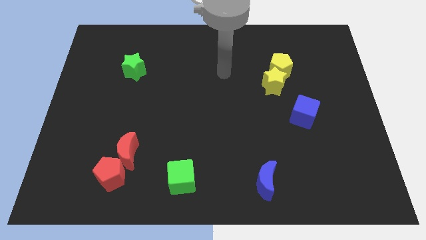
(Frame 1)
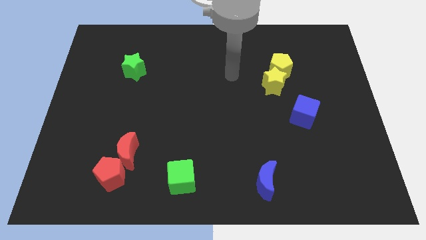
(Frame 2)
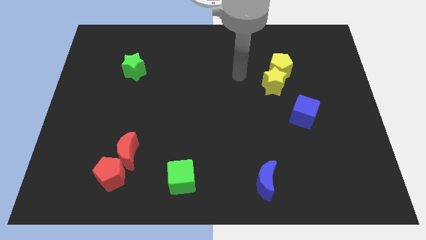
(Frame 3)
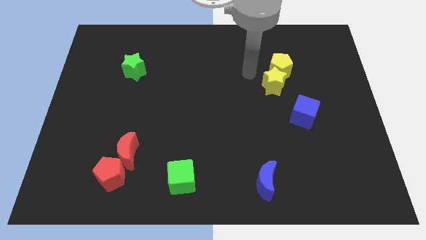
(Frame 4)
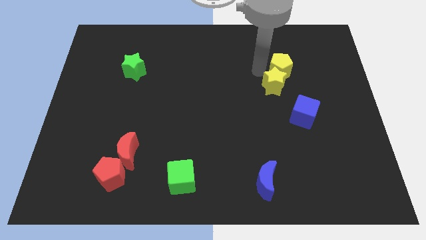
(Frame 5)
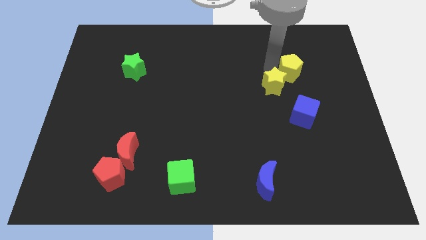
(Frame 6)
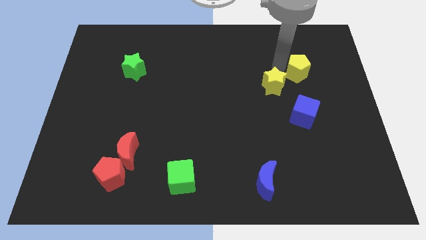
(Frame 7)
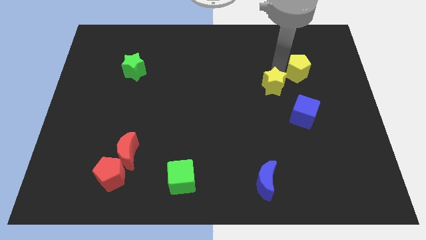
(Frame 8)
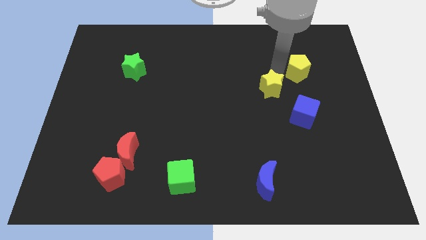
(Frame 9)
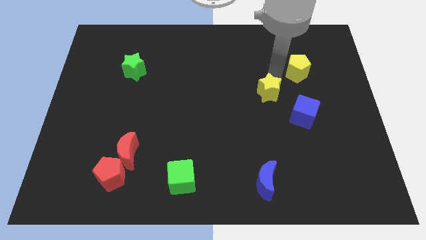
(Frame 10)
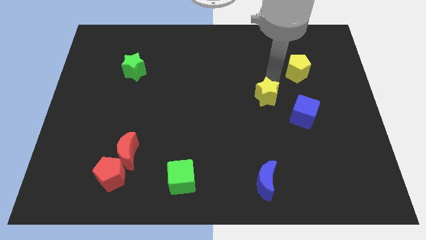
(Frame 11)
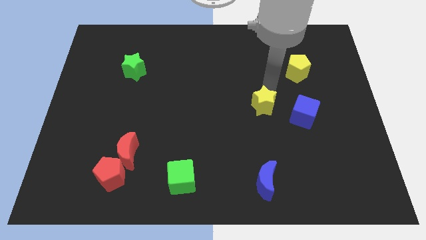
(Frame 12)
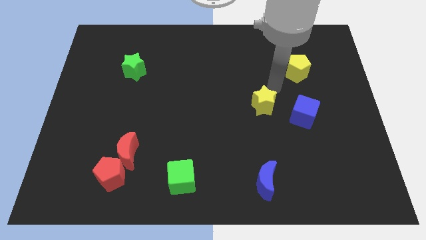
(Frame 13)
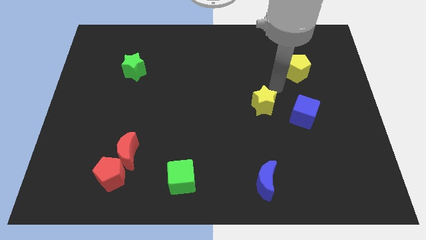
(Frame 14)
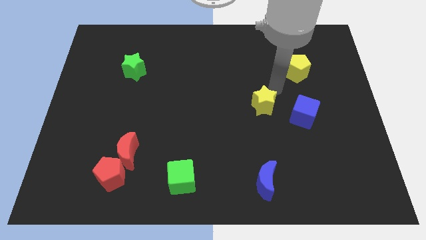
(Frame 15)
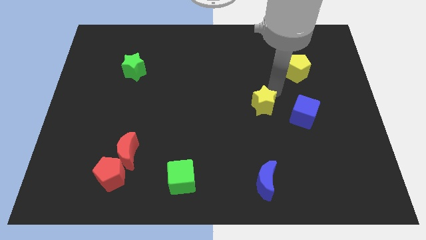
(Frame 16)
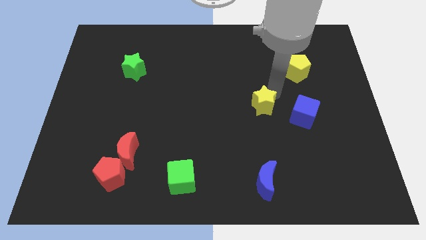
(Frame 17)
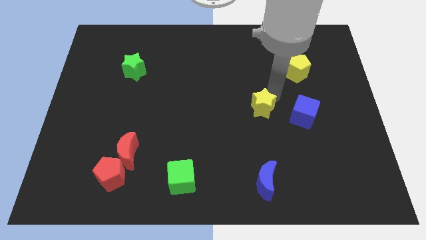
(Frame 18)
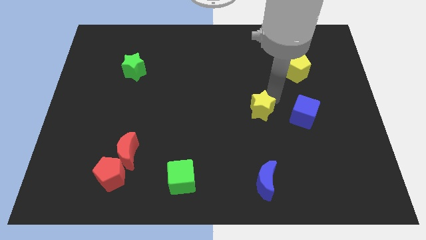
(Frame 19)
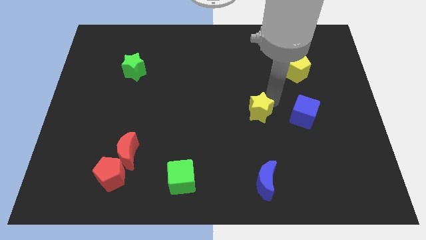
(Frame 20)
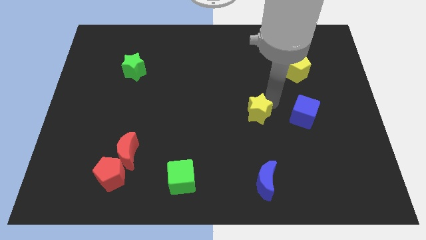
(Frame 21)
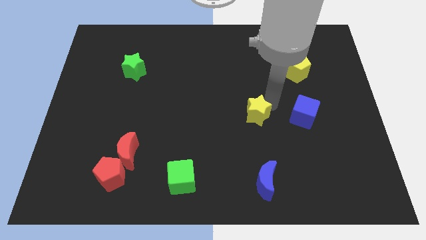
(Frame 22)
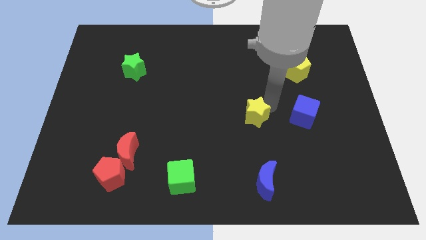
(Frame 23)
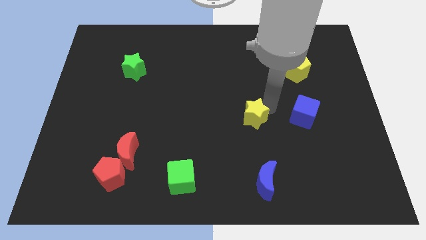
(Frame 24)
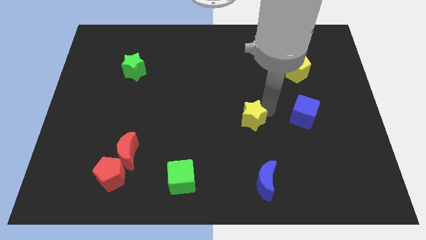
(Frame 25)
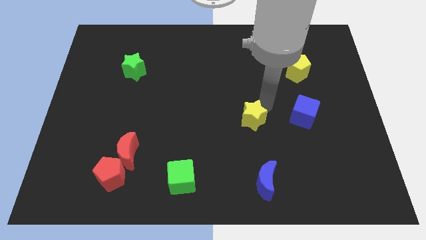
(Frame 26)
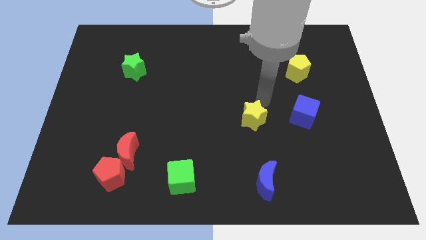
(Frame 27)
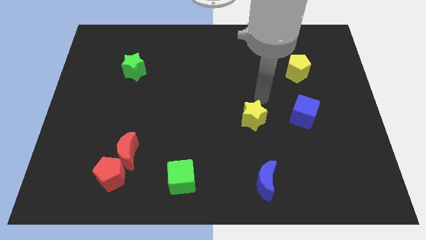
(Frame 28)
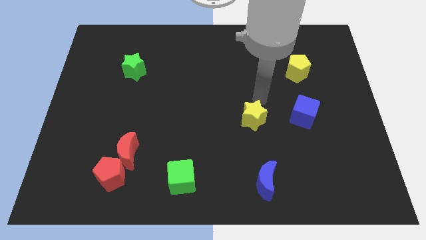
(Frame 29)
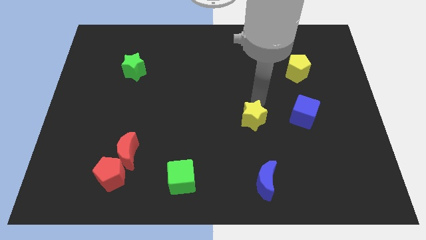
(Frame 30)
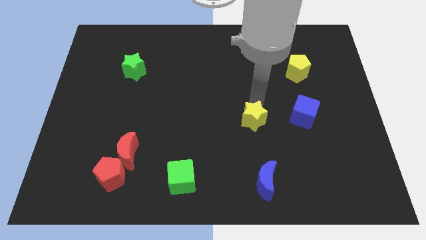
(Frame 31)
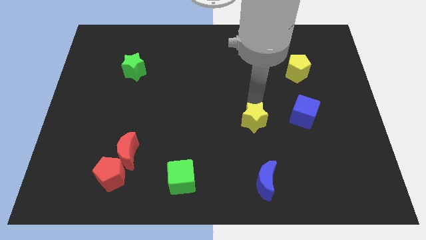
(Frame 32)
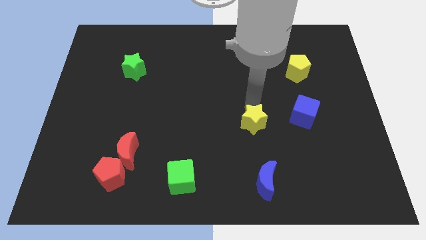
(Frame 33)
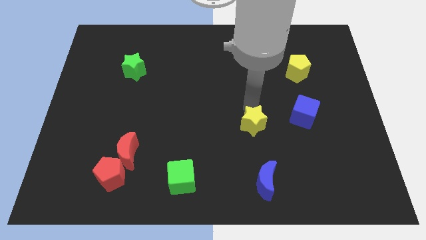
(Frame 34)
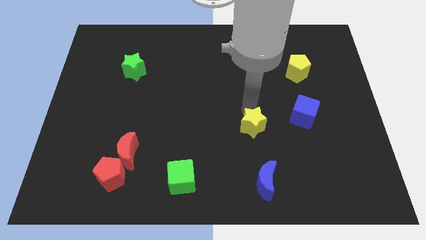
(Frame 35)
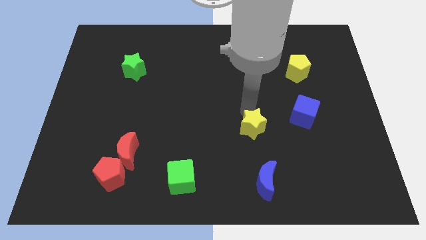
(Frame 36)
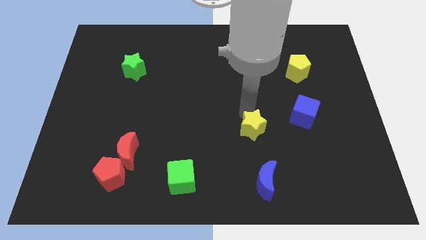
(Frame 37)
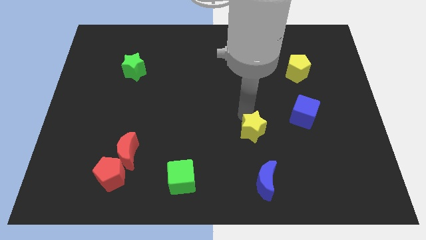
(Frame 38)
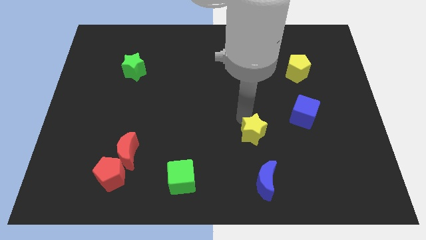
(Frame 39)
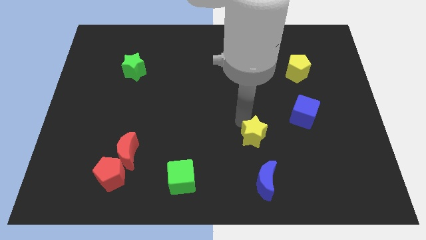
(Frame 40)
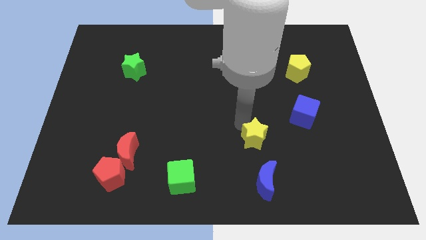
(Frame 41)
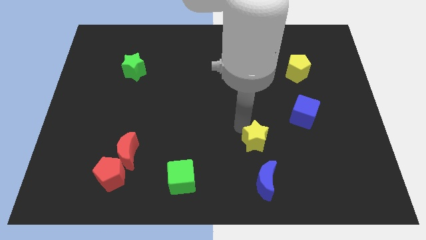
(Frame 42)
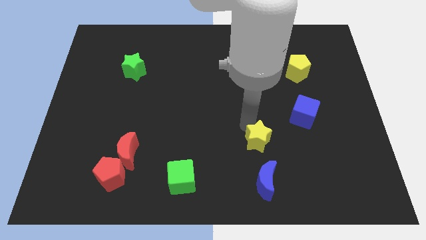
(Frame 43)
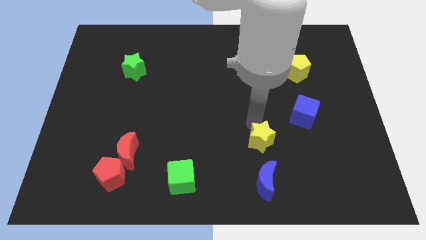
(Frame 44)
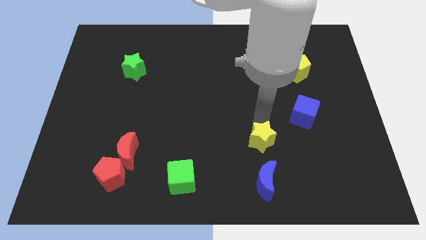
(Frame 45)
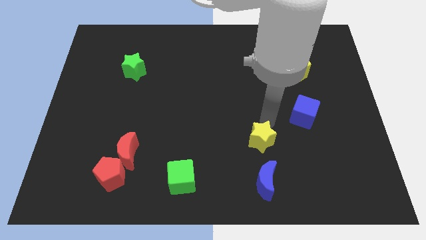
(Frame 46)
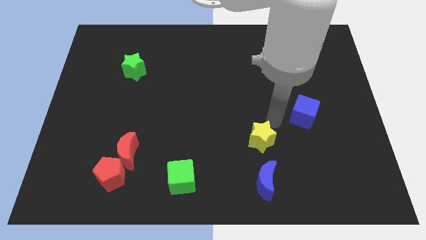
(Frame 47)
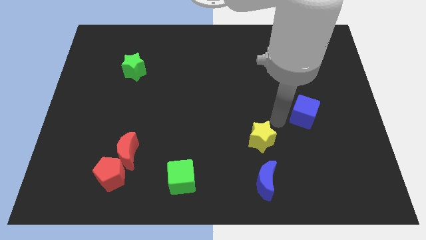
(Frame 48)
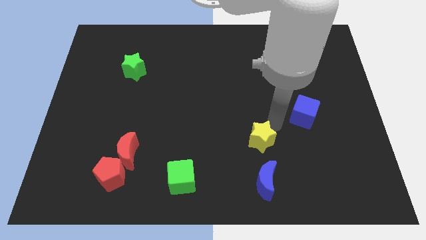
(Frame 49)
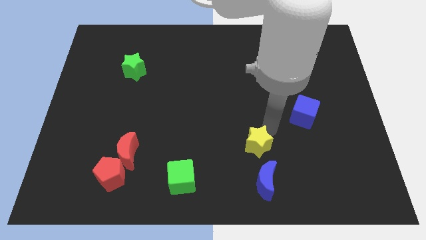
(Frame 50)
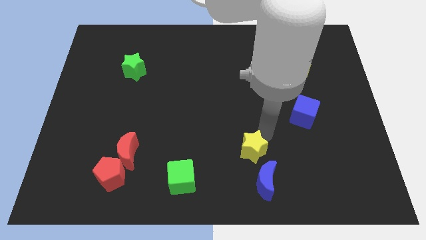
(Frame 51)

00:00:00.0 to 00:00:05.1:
slide the yellow star diagonally up and to the left of the blue moon

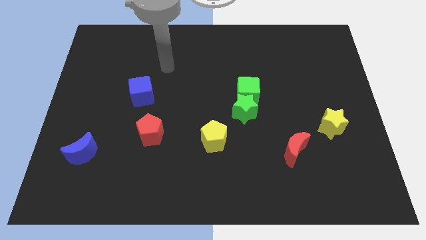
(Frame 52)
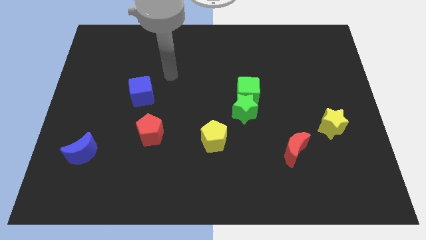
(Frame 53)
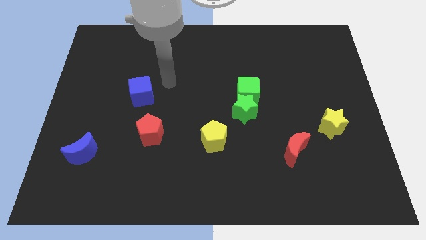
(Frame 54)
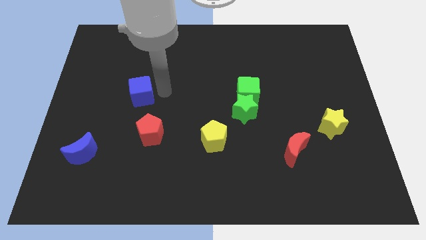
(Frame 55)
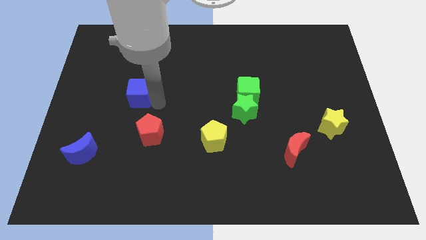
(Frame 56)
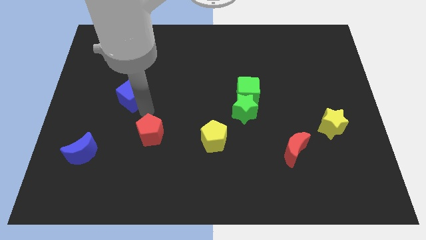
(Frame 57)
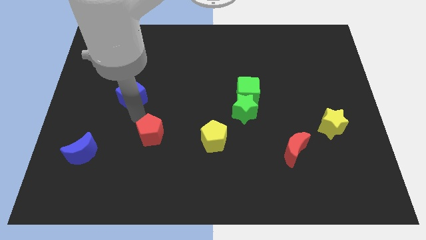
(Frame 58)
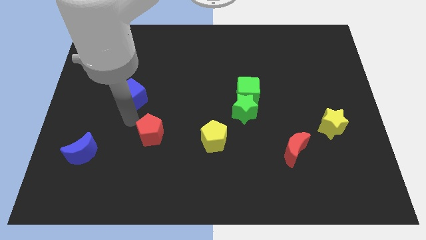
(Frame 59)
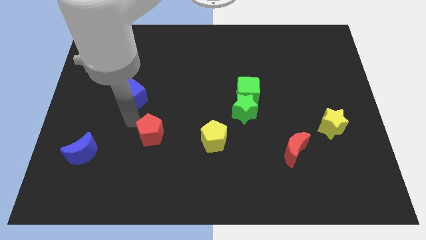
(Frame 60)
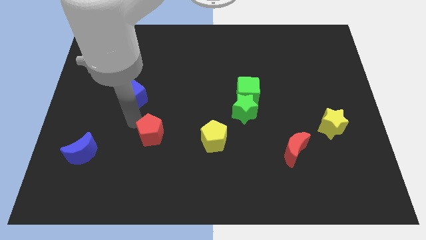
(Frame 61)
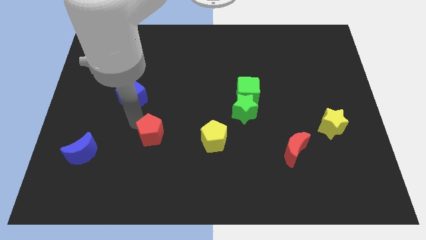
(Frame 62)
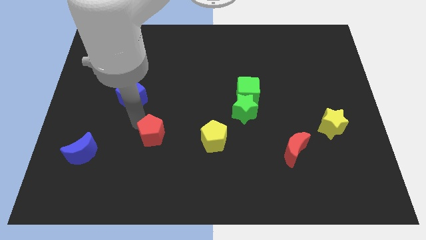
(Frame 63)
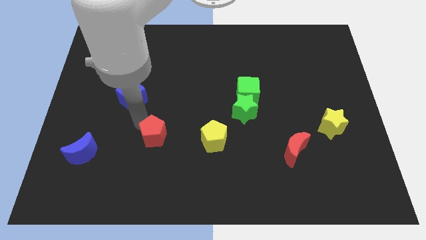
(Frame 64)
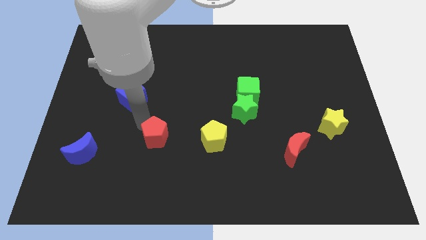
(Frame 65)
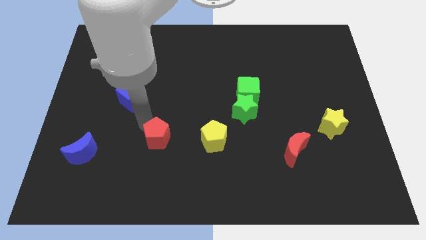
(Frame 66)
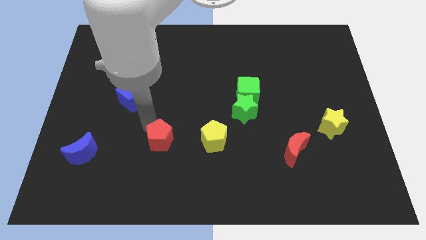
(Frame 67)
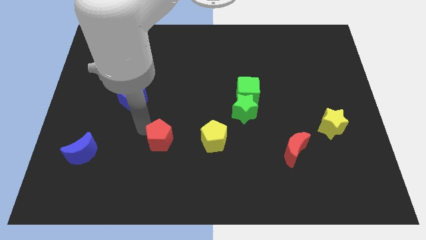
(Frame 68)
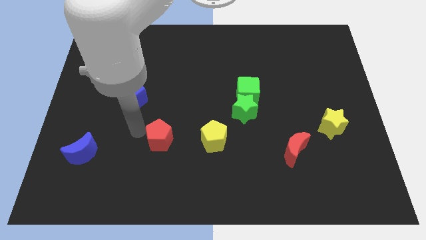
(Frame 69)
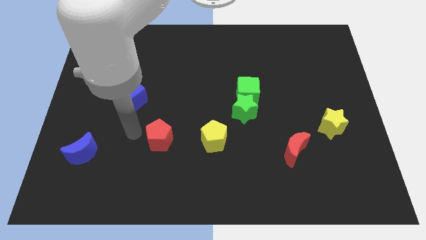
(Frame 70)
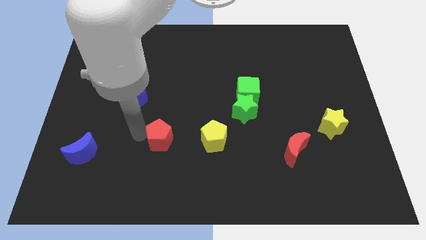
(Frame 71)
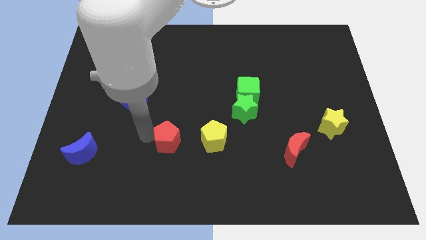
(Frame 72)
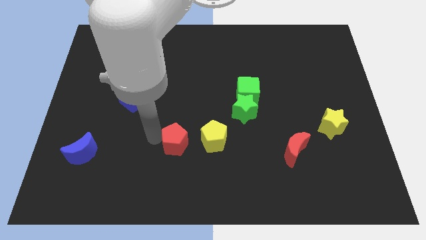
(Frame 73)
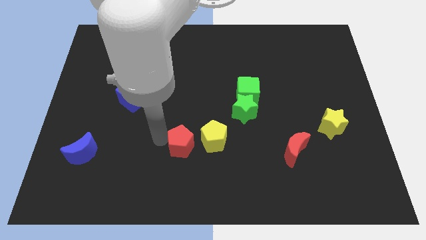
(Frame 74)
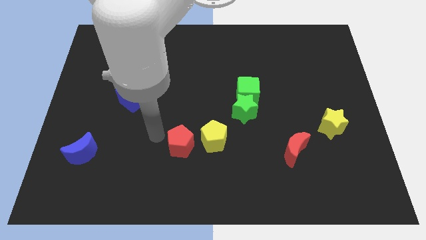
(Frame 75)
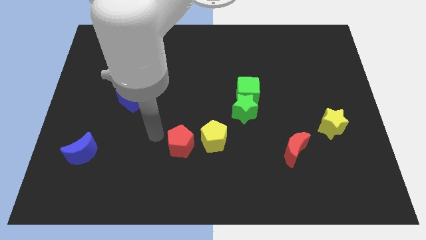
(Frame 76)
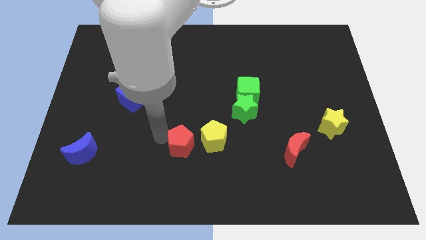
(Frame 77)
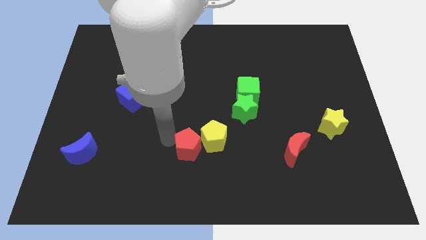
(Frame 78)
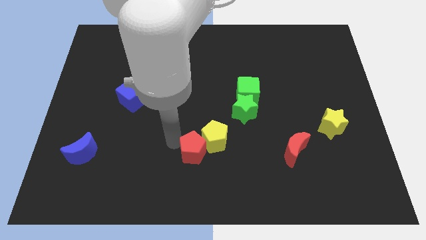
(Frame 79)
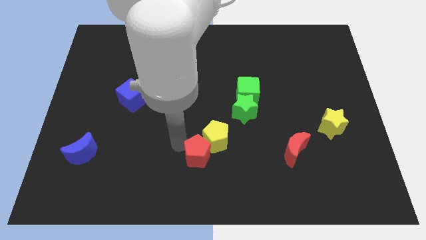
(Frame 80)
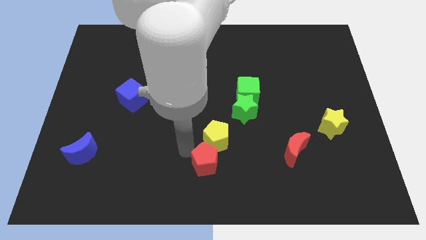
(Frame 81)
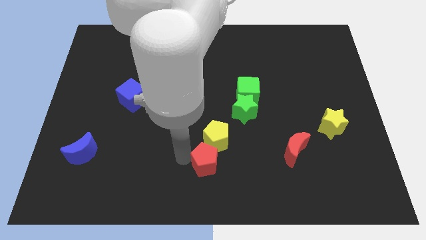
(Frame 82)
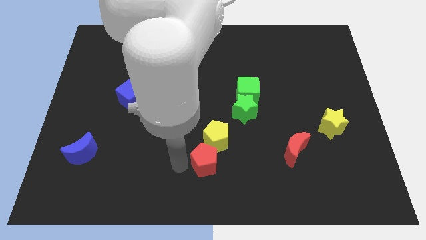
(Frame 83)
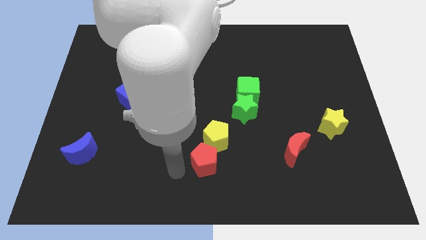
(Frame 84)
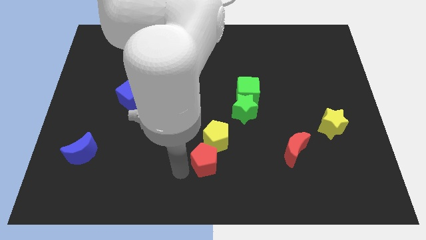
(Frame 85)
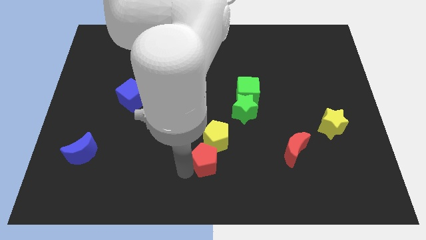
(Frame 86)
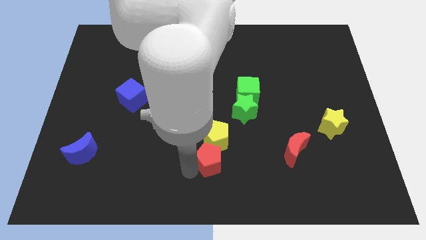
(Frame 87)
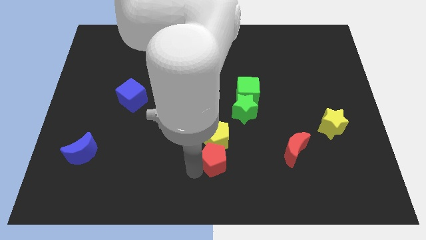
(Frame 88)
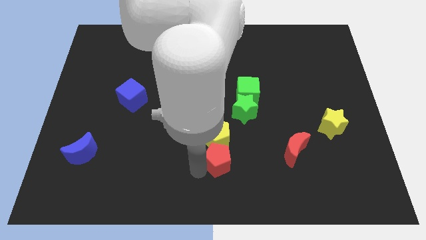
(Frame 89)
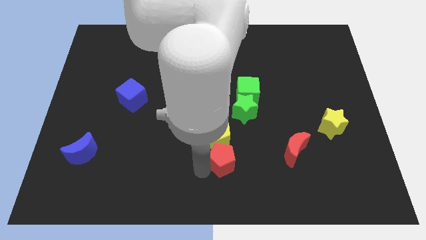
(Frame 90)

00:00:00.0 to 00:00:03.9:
slide the red pentagon left of the red moon
